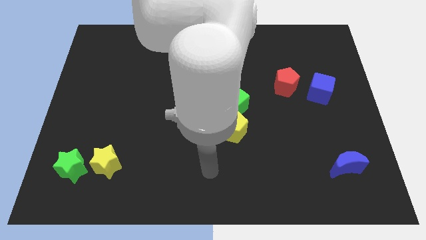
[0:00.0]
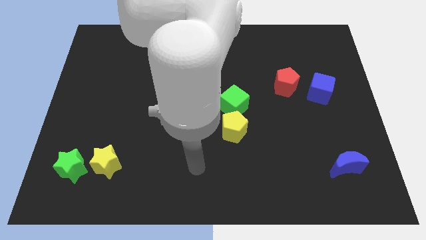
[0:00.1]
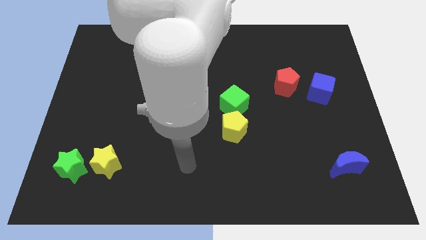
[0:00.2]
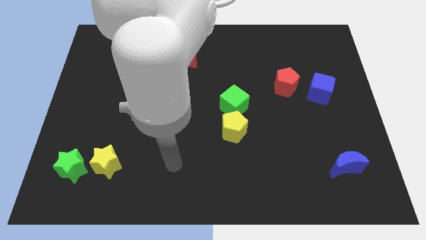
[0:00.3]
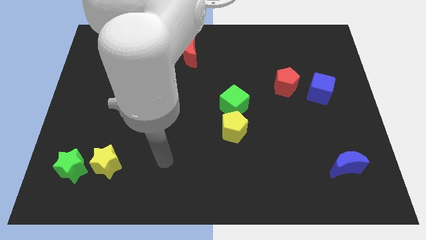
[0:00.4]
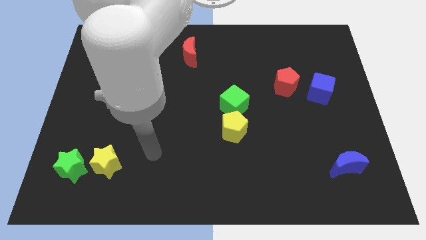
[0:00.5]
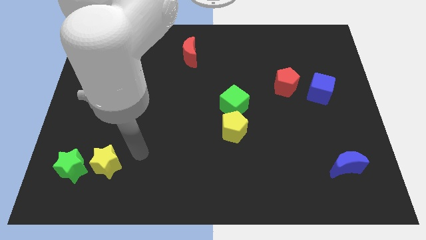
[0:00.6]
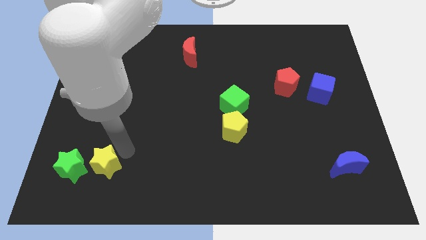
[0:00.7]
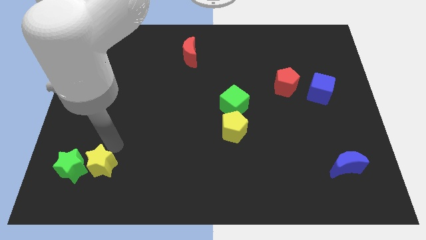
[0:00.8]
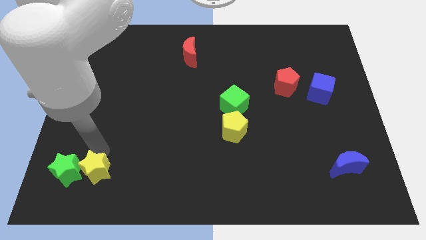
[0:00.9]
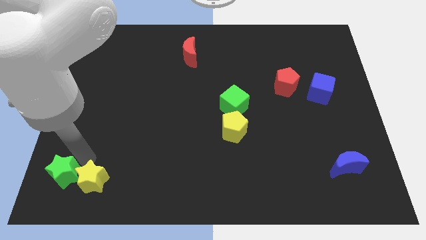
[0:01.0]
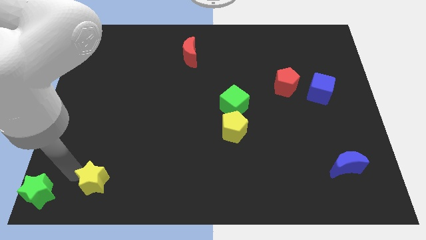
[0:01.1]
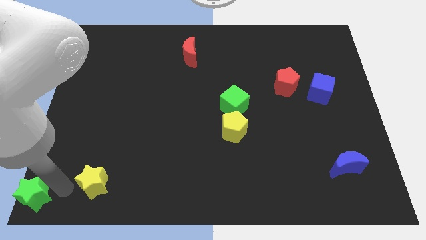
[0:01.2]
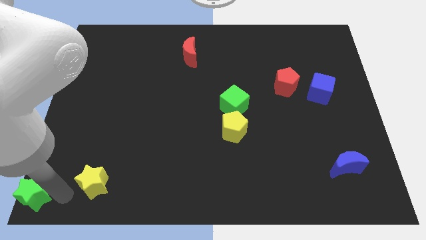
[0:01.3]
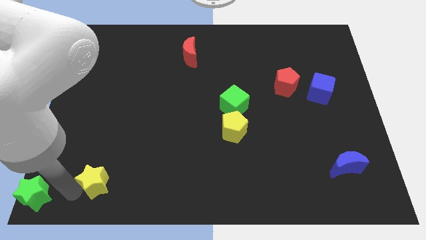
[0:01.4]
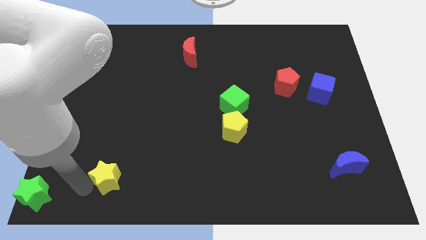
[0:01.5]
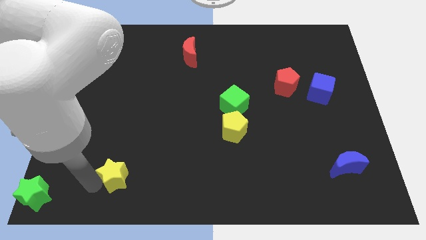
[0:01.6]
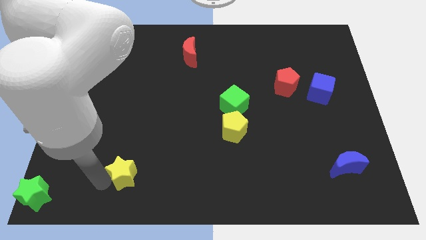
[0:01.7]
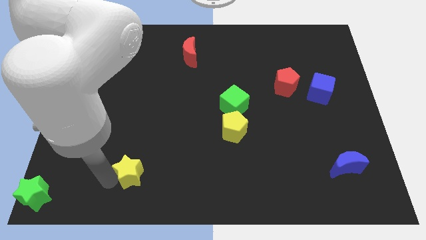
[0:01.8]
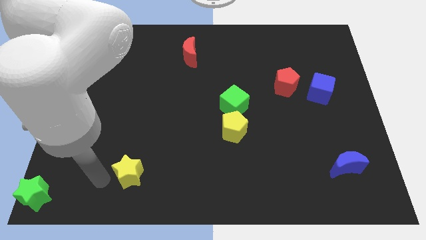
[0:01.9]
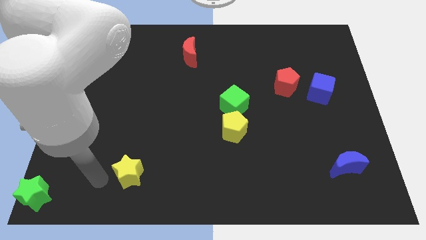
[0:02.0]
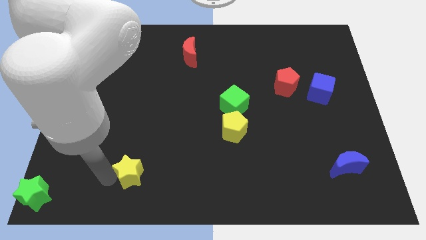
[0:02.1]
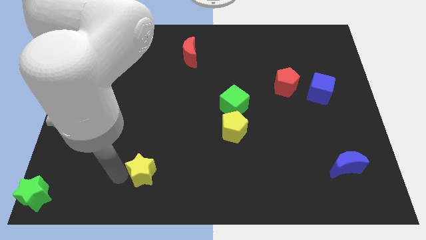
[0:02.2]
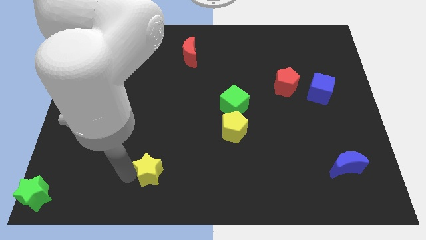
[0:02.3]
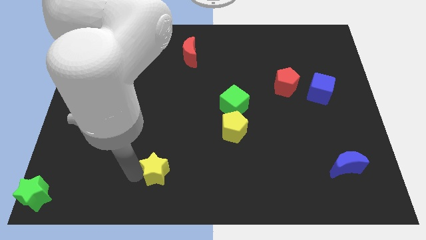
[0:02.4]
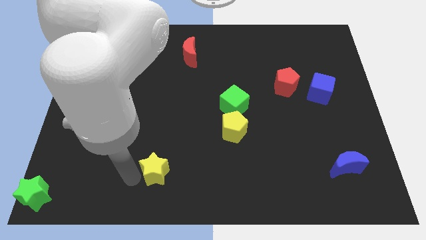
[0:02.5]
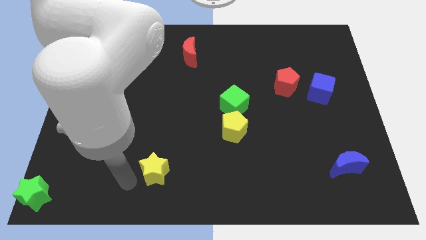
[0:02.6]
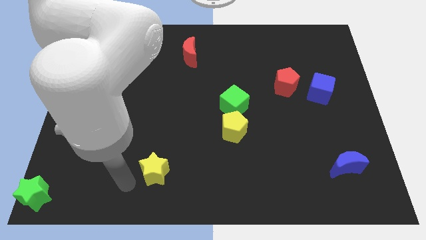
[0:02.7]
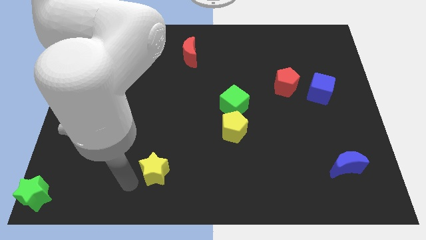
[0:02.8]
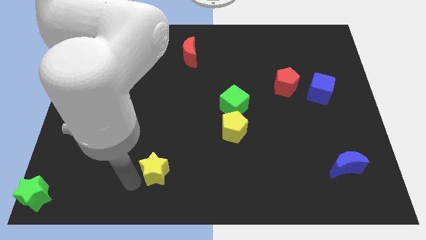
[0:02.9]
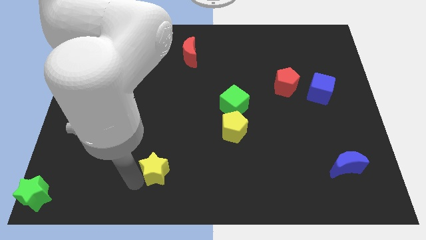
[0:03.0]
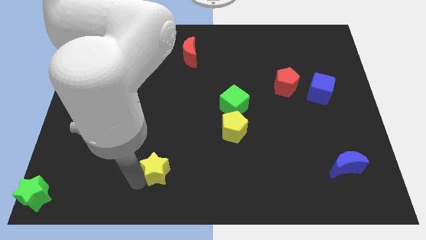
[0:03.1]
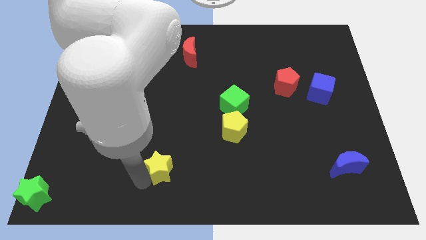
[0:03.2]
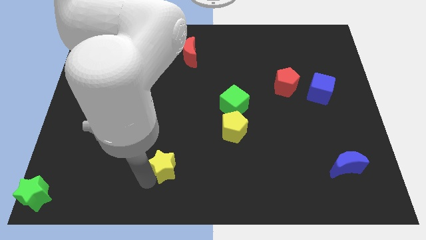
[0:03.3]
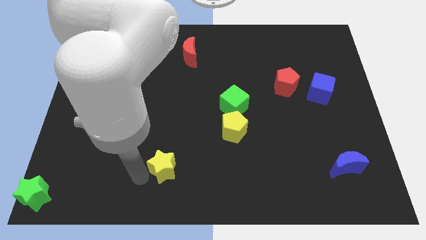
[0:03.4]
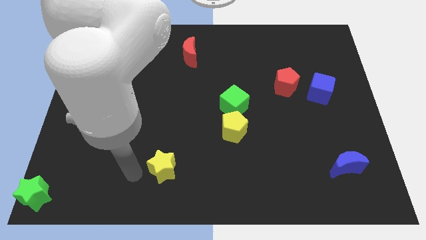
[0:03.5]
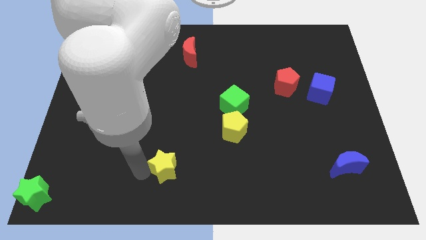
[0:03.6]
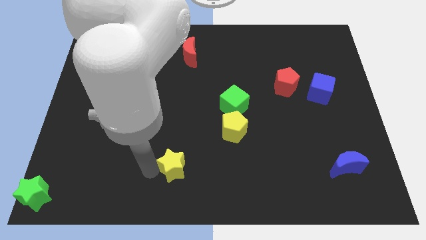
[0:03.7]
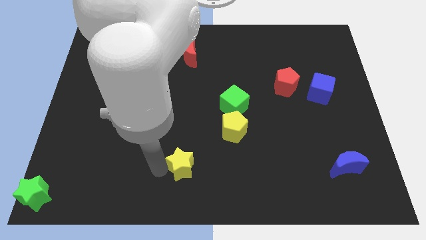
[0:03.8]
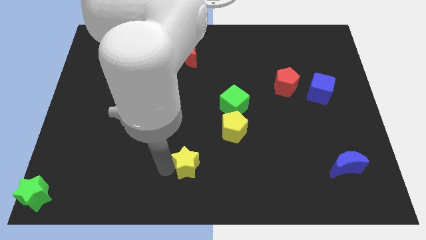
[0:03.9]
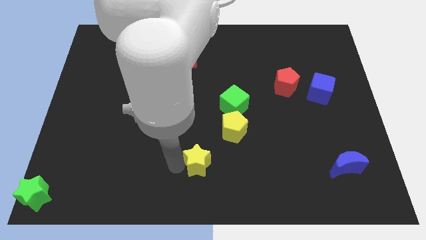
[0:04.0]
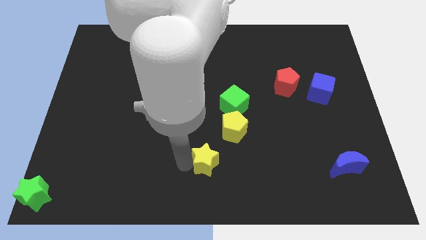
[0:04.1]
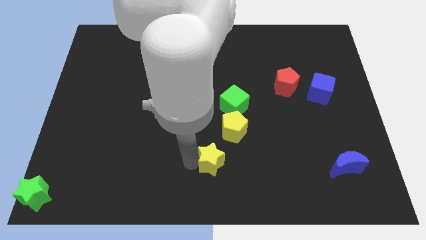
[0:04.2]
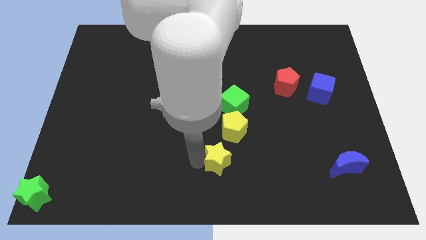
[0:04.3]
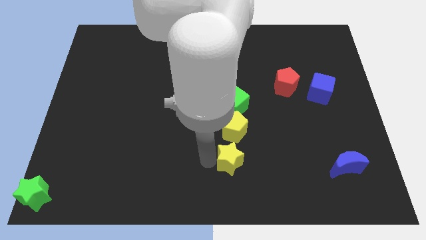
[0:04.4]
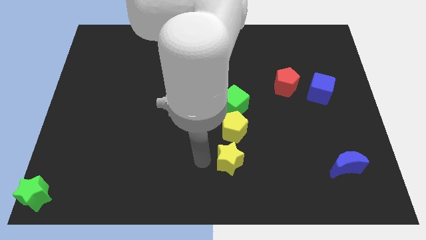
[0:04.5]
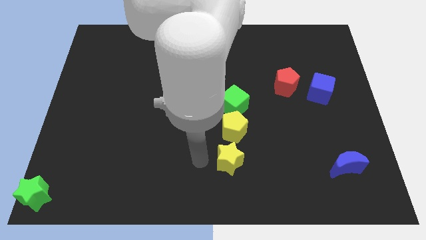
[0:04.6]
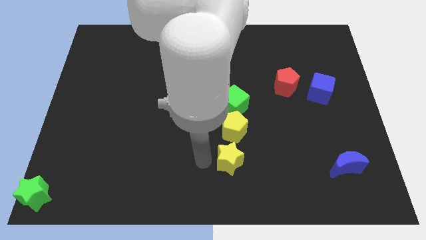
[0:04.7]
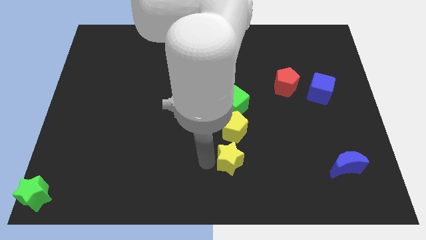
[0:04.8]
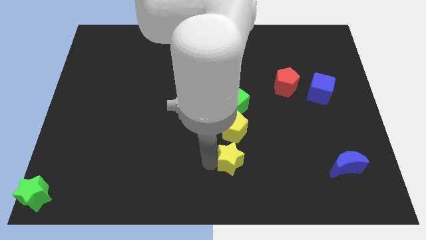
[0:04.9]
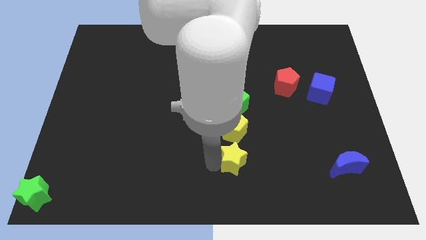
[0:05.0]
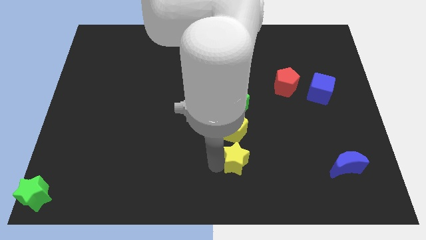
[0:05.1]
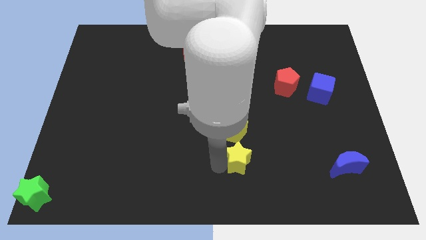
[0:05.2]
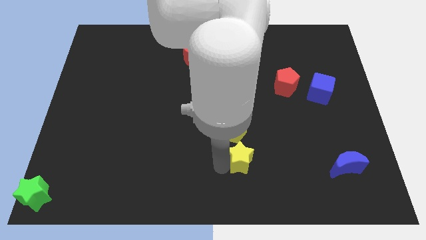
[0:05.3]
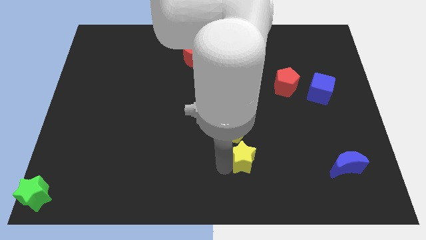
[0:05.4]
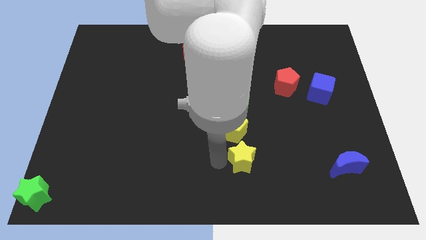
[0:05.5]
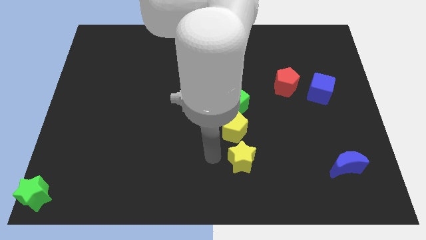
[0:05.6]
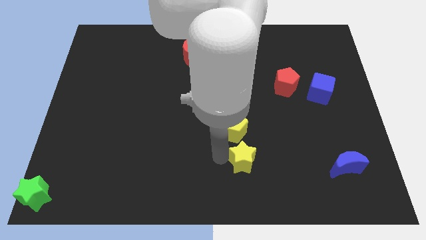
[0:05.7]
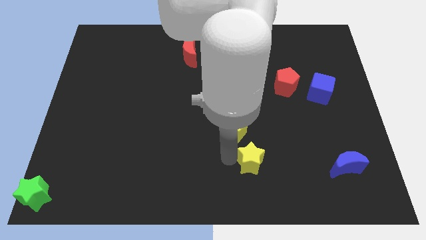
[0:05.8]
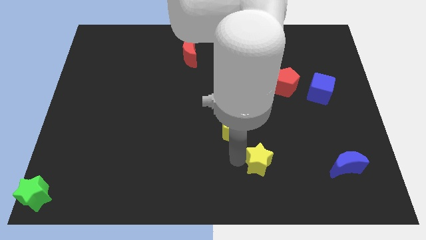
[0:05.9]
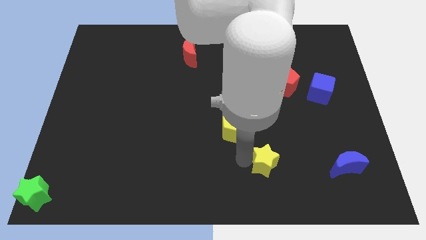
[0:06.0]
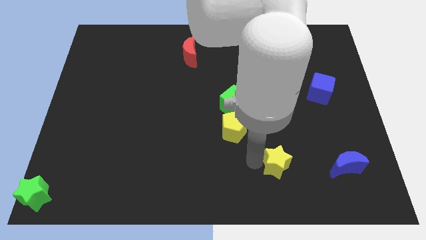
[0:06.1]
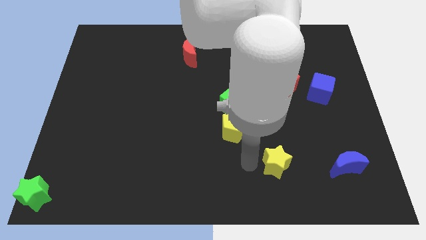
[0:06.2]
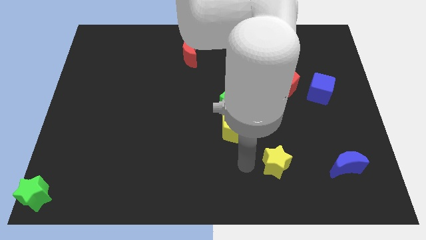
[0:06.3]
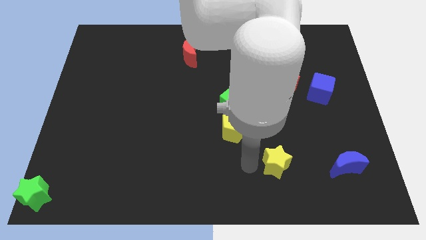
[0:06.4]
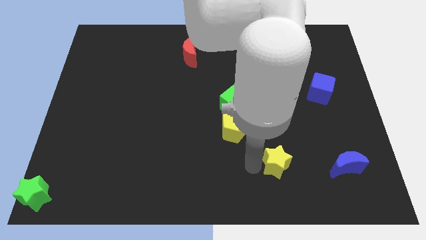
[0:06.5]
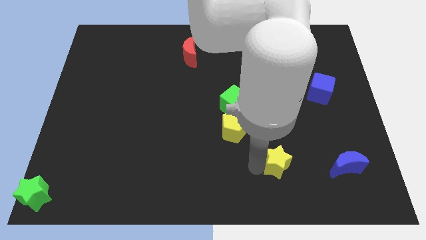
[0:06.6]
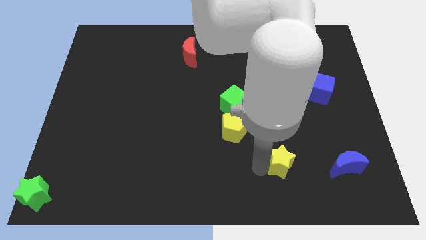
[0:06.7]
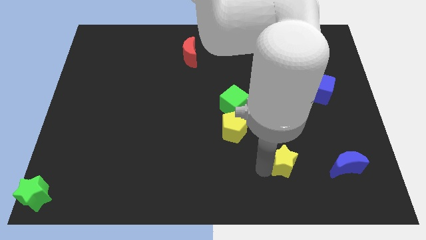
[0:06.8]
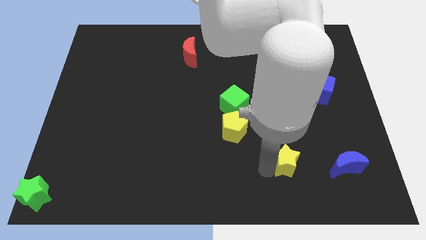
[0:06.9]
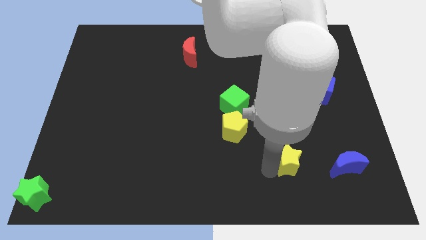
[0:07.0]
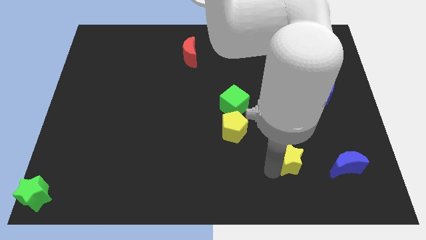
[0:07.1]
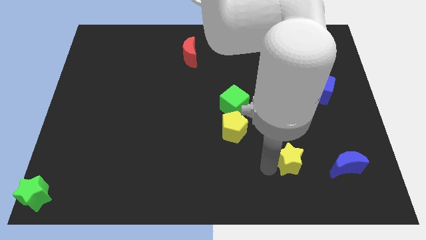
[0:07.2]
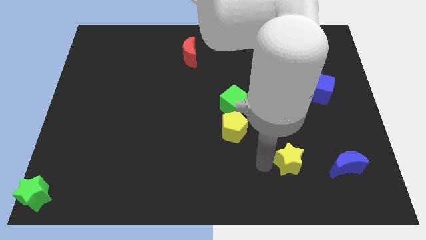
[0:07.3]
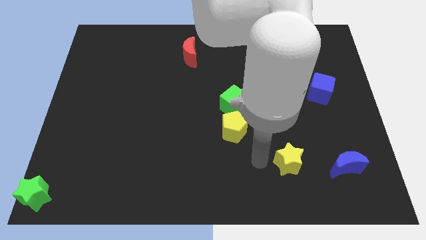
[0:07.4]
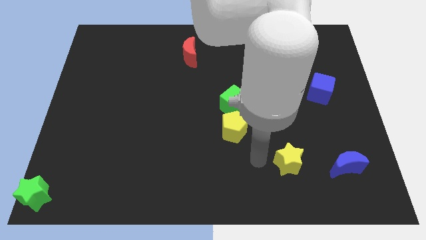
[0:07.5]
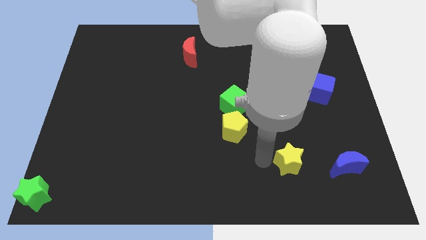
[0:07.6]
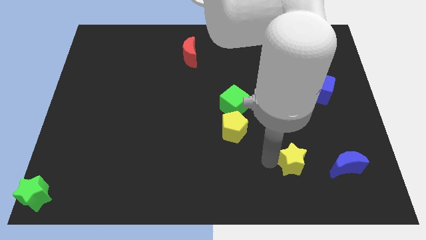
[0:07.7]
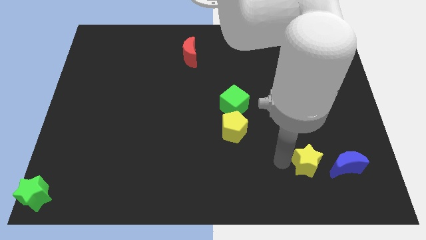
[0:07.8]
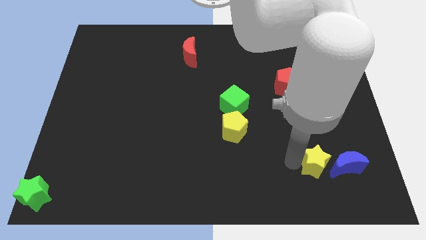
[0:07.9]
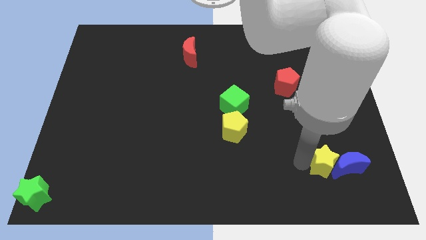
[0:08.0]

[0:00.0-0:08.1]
move the yellow star close to the blue moon
